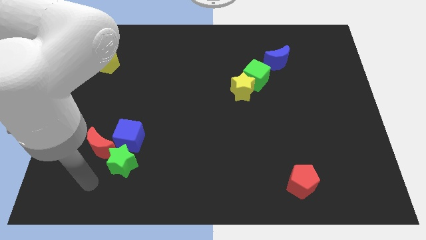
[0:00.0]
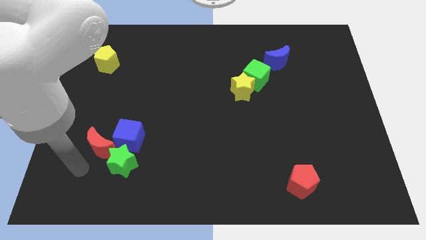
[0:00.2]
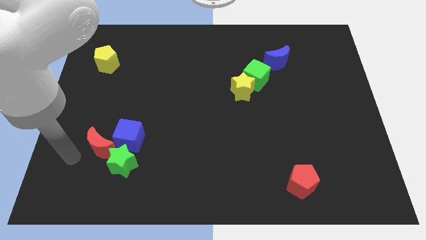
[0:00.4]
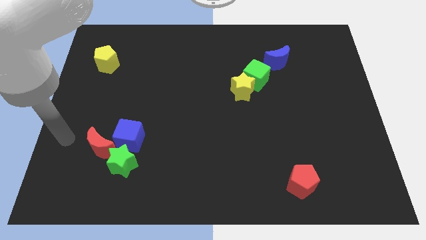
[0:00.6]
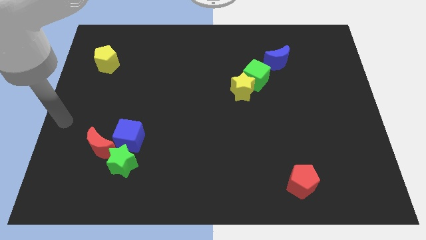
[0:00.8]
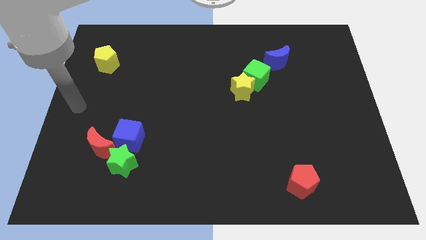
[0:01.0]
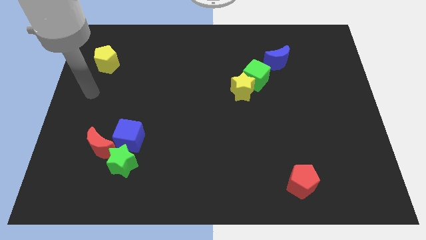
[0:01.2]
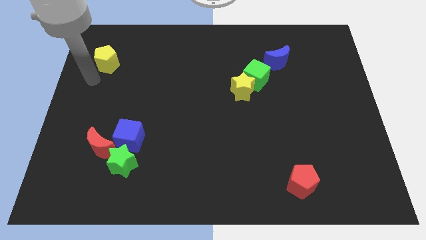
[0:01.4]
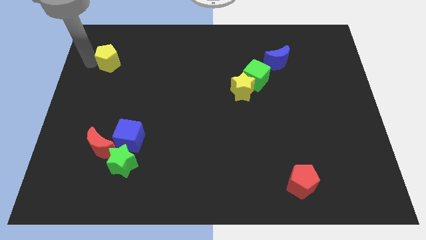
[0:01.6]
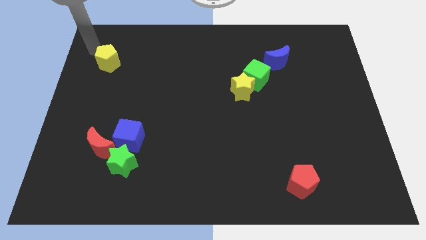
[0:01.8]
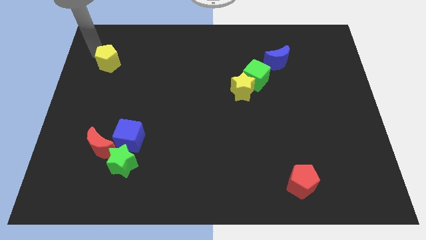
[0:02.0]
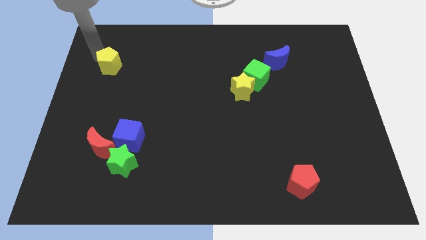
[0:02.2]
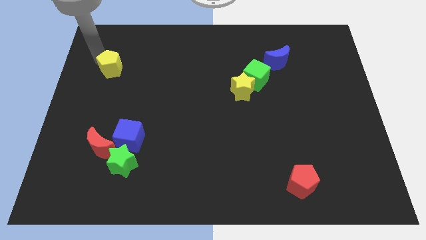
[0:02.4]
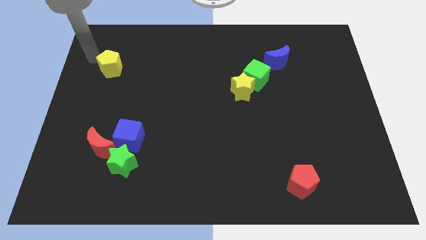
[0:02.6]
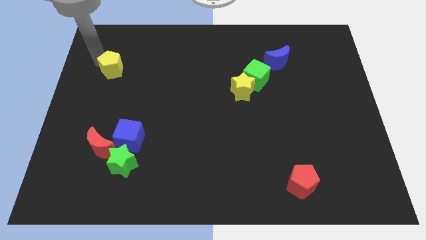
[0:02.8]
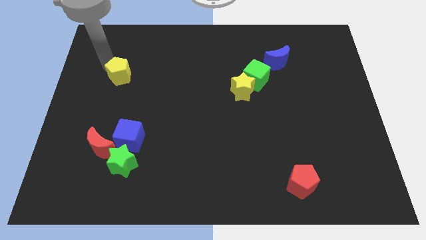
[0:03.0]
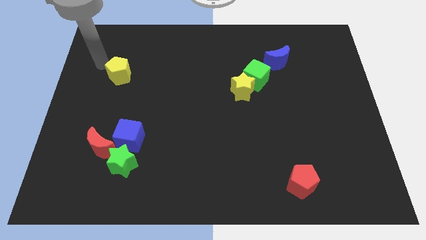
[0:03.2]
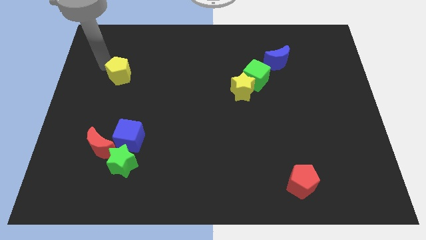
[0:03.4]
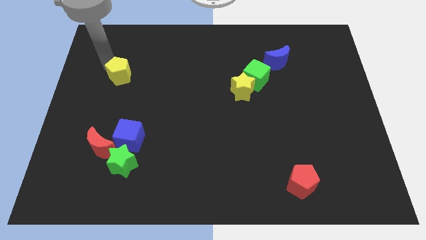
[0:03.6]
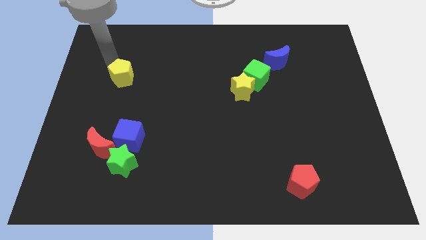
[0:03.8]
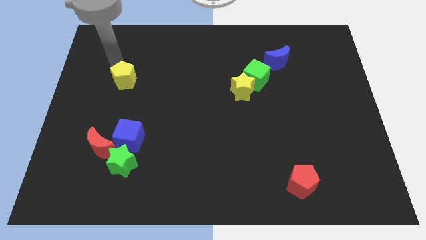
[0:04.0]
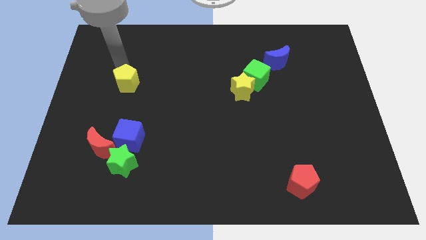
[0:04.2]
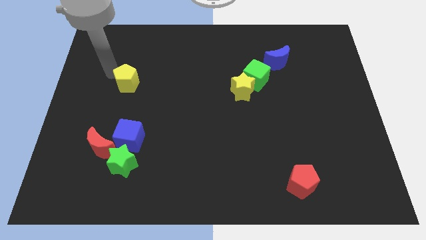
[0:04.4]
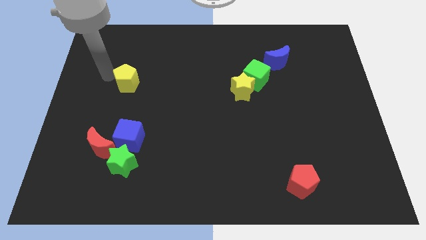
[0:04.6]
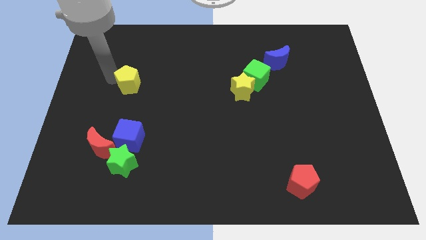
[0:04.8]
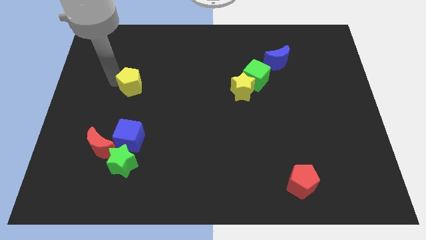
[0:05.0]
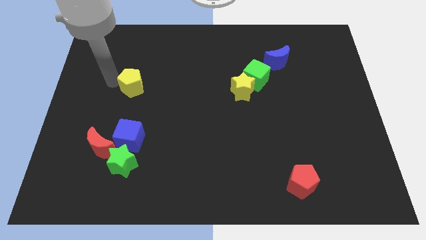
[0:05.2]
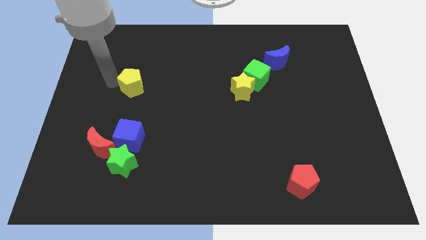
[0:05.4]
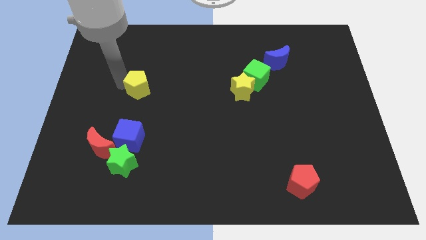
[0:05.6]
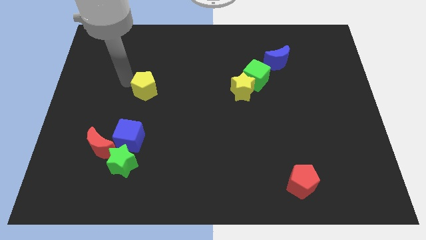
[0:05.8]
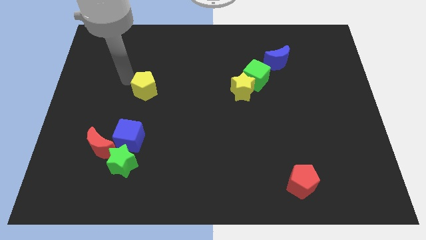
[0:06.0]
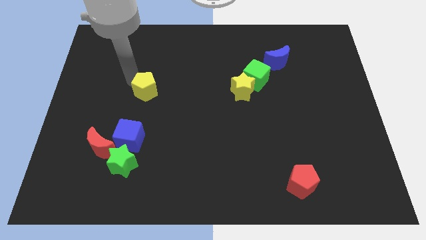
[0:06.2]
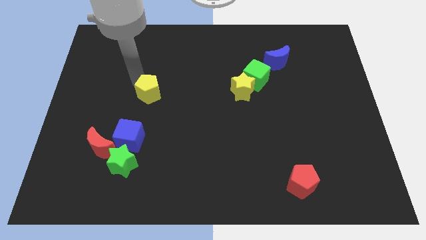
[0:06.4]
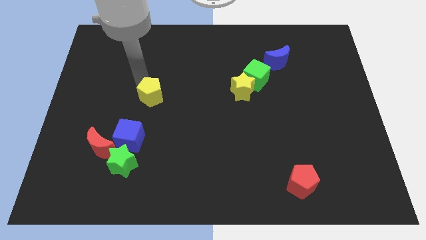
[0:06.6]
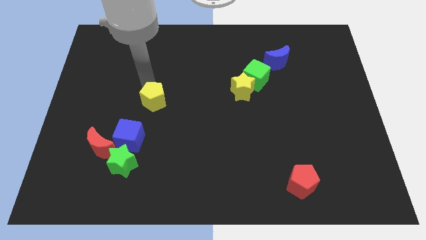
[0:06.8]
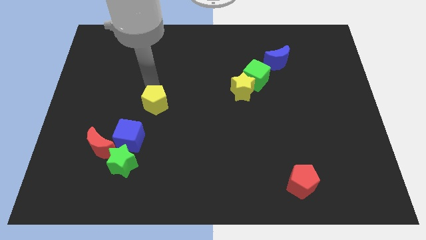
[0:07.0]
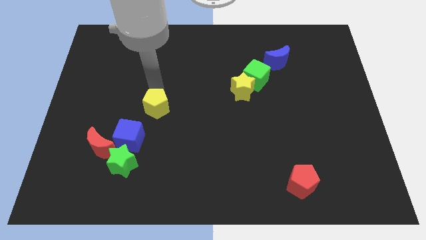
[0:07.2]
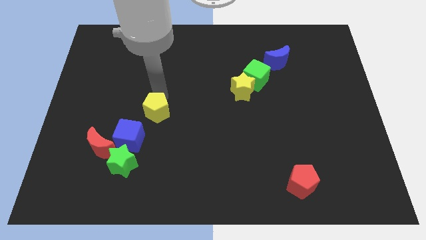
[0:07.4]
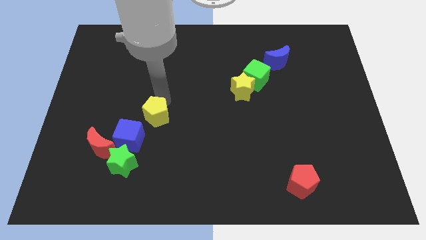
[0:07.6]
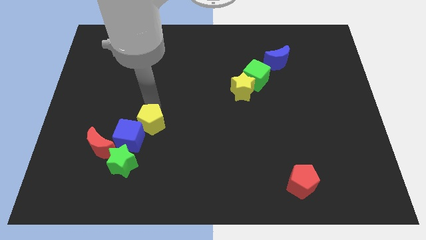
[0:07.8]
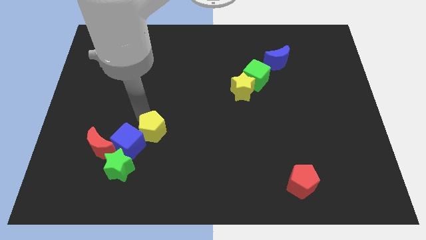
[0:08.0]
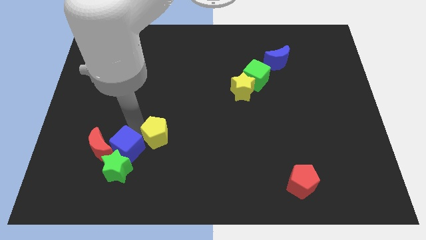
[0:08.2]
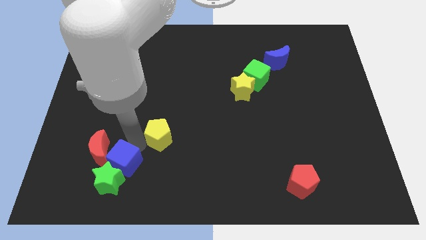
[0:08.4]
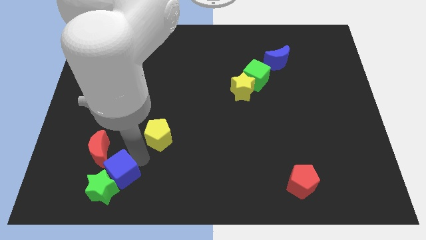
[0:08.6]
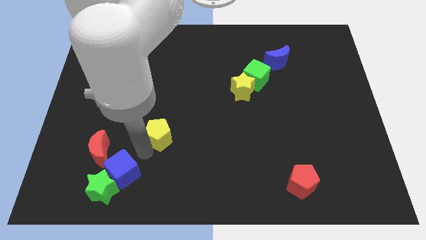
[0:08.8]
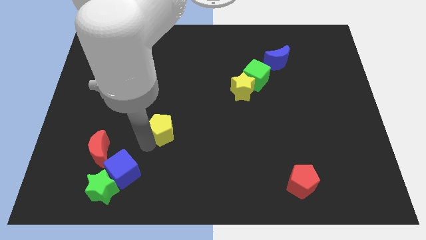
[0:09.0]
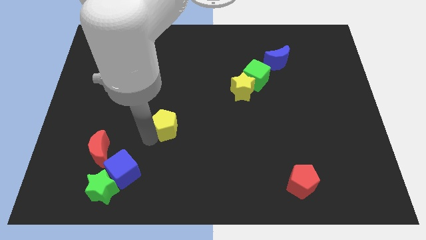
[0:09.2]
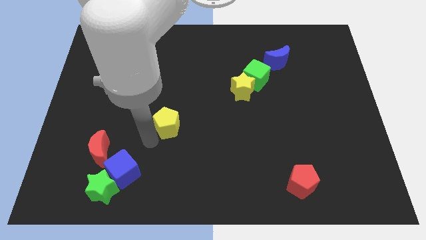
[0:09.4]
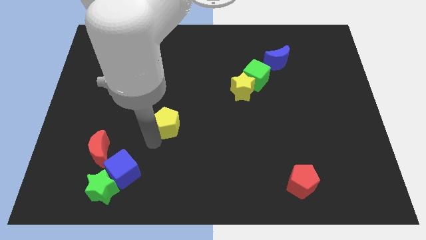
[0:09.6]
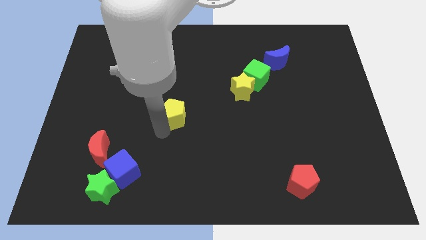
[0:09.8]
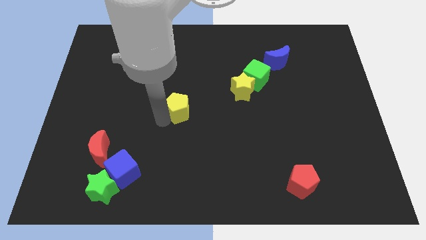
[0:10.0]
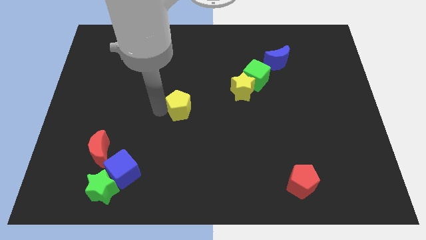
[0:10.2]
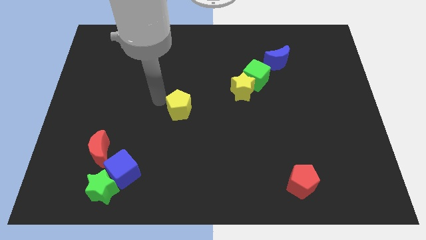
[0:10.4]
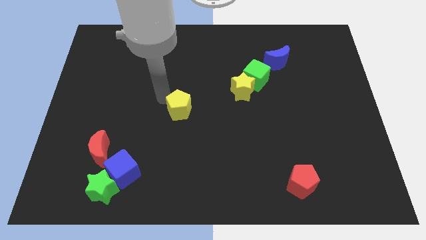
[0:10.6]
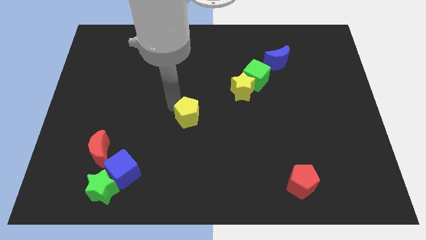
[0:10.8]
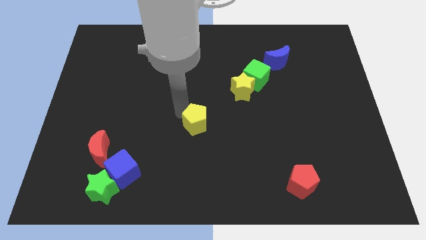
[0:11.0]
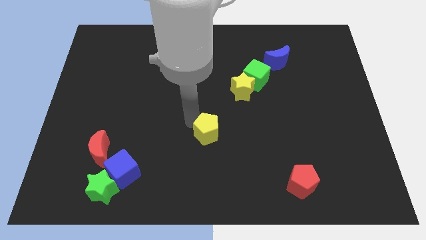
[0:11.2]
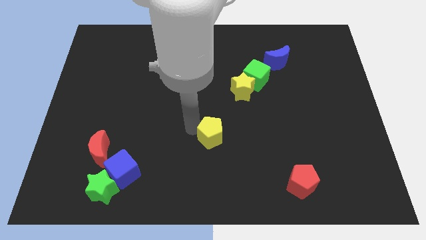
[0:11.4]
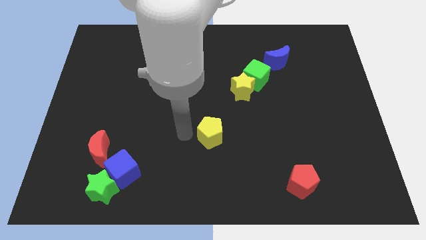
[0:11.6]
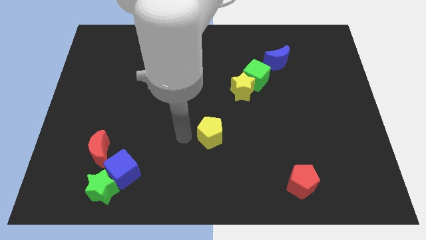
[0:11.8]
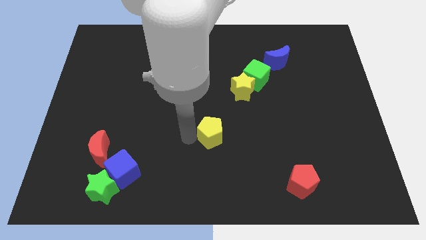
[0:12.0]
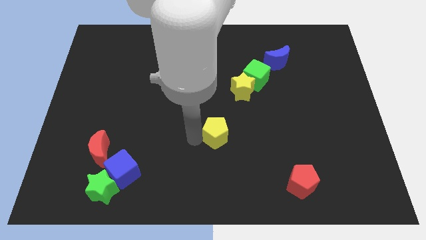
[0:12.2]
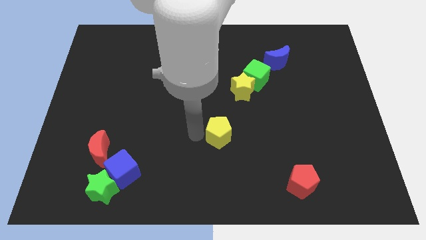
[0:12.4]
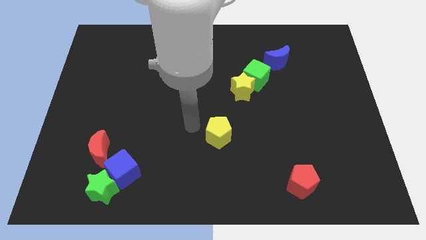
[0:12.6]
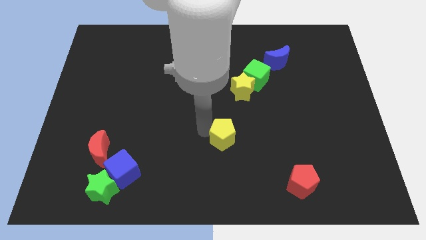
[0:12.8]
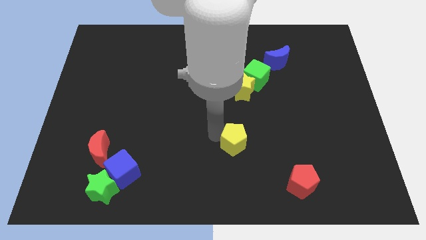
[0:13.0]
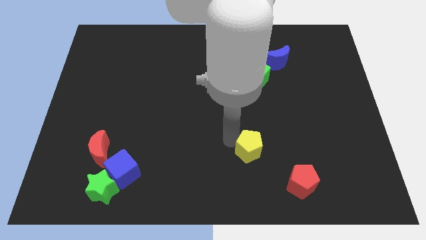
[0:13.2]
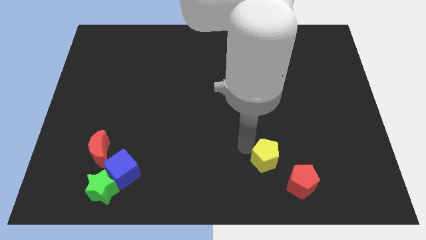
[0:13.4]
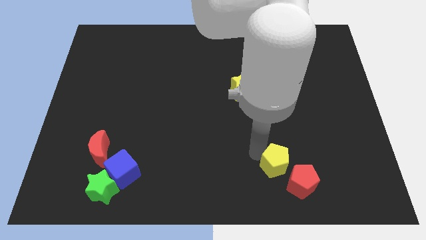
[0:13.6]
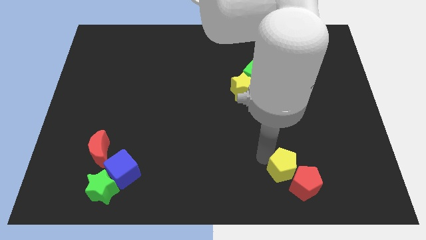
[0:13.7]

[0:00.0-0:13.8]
put the yellow pentagon towards the red pentagon
